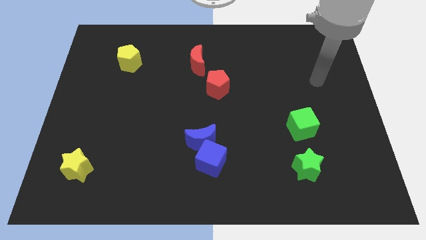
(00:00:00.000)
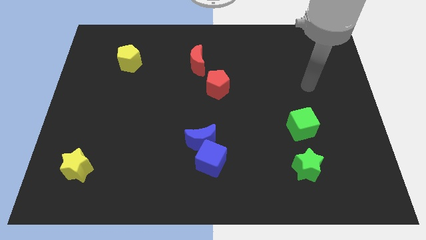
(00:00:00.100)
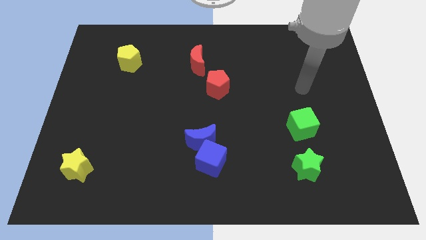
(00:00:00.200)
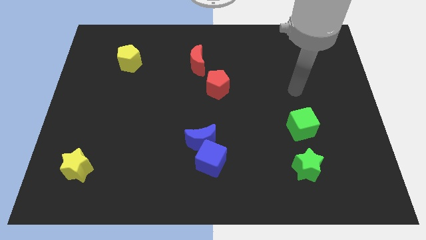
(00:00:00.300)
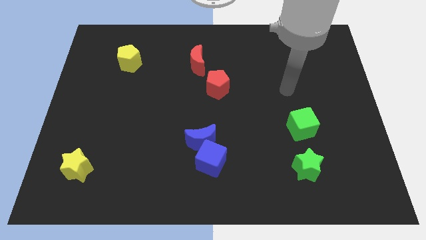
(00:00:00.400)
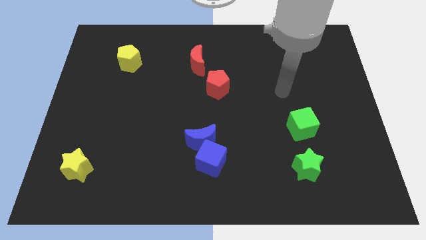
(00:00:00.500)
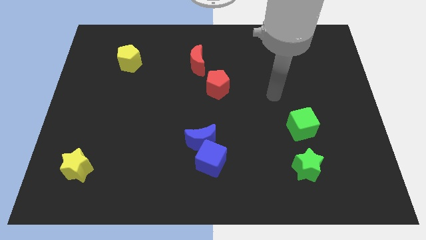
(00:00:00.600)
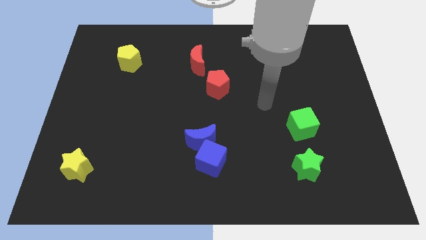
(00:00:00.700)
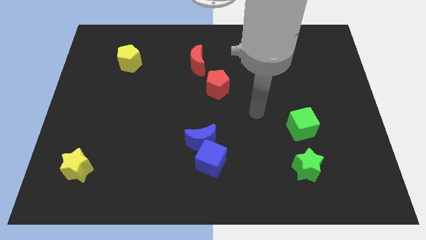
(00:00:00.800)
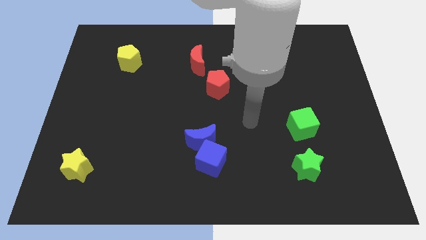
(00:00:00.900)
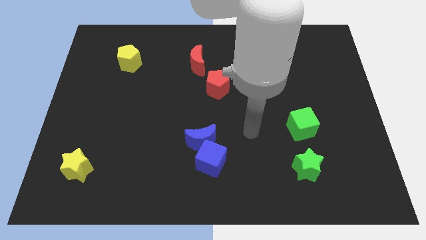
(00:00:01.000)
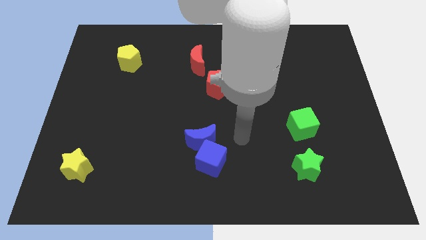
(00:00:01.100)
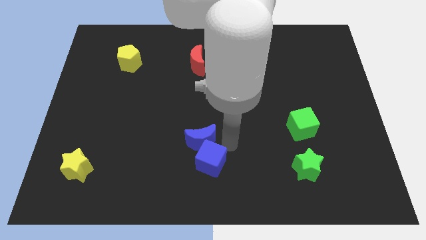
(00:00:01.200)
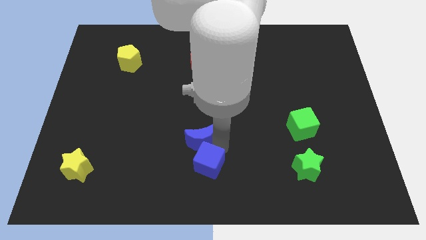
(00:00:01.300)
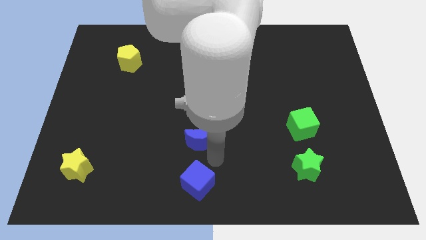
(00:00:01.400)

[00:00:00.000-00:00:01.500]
pull the blue moon apart from the blue cube

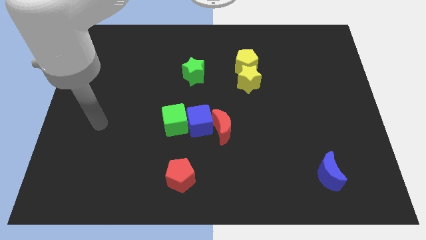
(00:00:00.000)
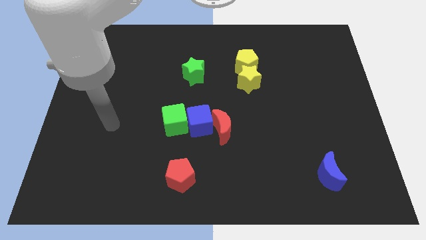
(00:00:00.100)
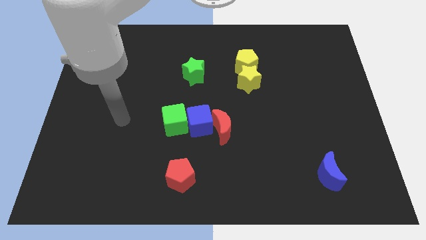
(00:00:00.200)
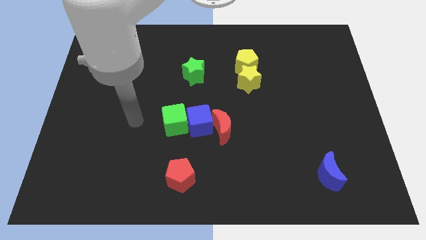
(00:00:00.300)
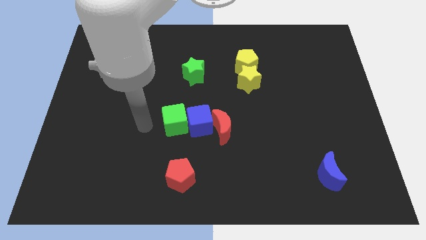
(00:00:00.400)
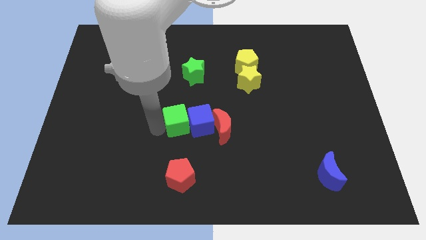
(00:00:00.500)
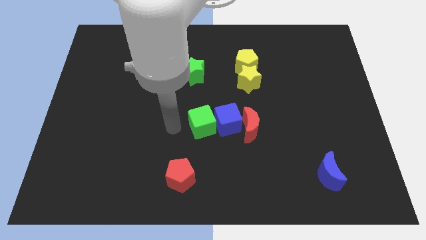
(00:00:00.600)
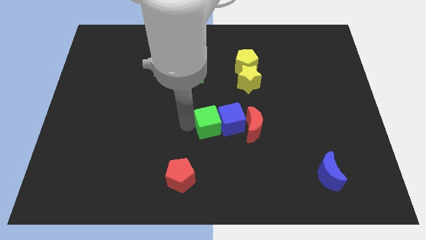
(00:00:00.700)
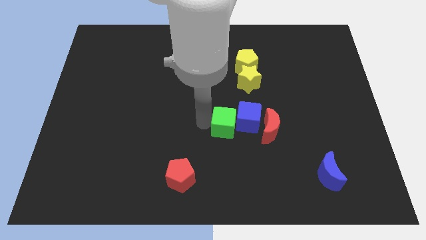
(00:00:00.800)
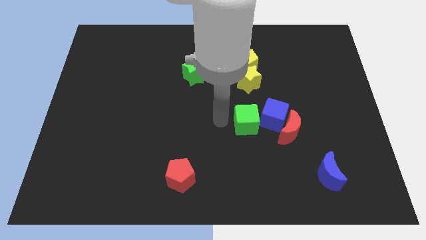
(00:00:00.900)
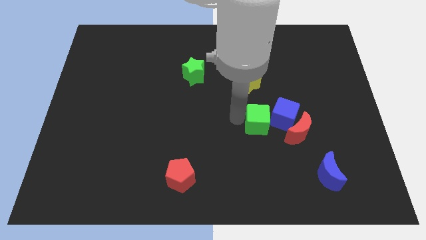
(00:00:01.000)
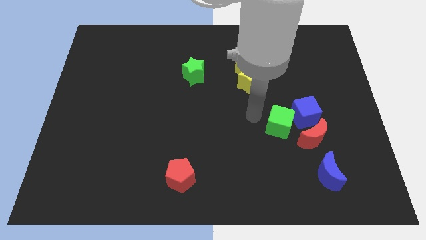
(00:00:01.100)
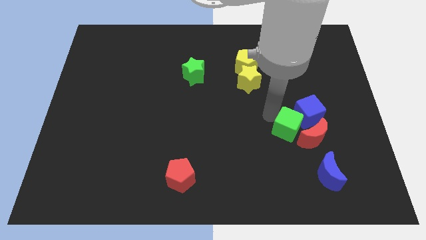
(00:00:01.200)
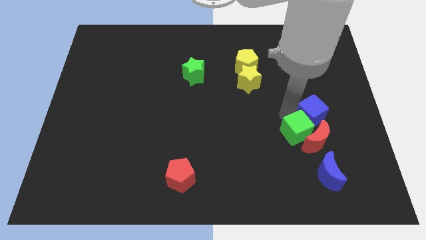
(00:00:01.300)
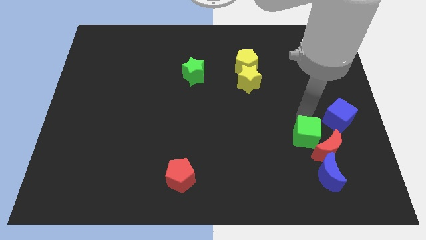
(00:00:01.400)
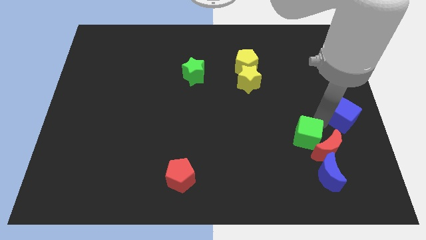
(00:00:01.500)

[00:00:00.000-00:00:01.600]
move the red moon away from the blue cube

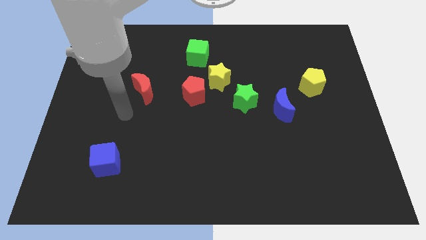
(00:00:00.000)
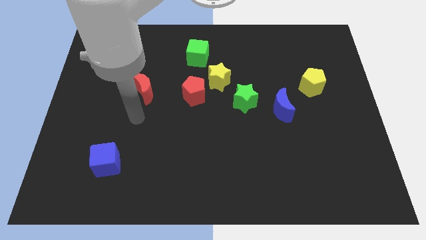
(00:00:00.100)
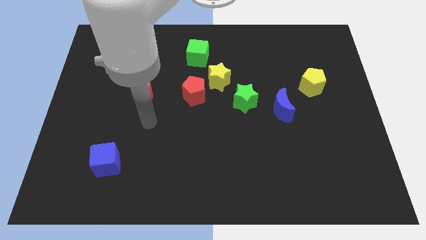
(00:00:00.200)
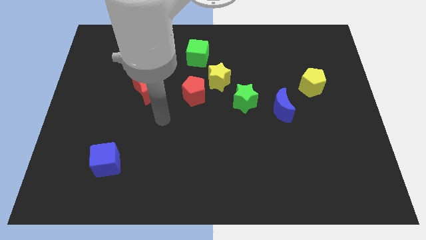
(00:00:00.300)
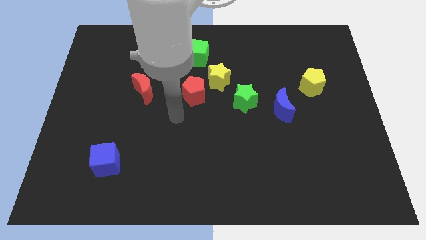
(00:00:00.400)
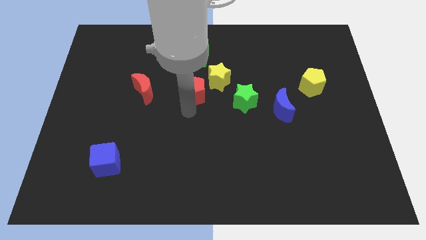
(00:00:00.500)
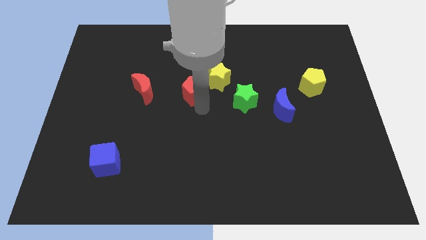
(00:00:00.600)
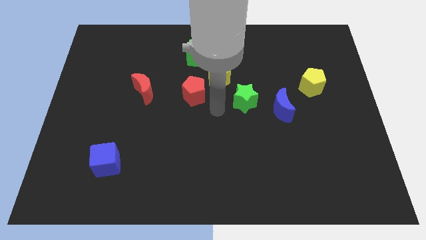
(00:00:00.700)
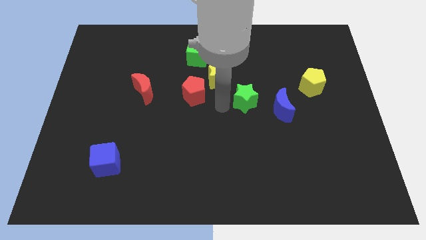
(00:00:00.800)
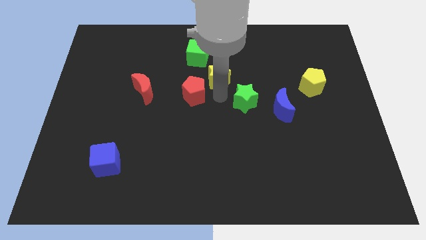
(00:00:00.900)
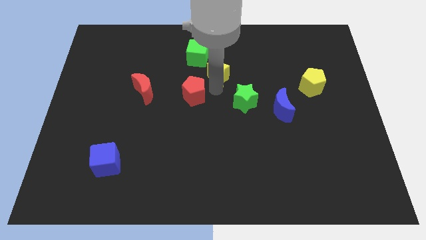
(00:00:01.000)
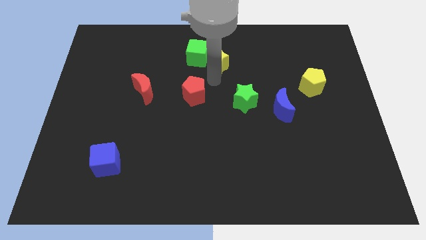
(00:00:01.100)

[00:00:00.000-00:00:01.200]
pull the red pentagon apart from the yellow star

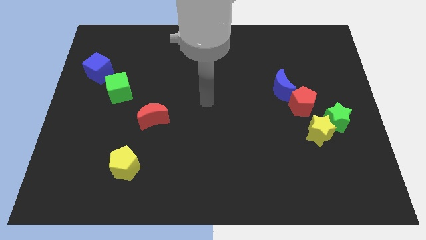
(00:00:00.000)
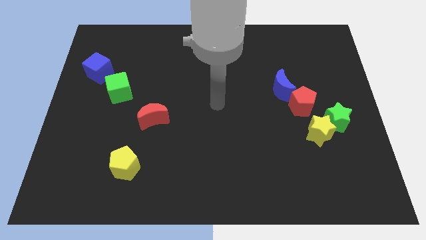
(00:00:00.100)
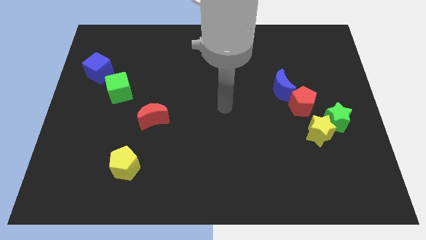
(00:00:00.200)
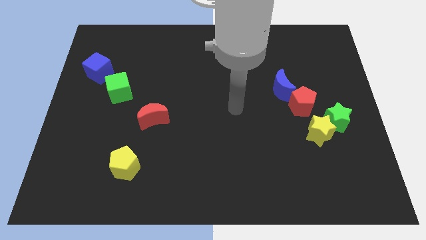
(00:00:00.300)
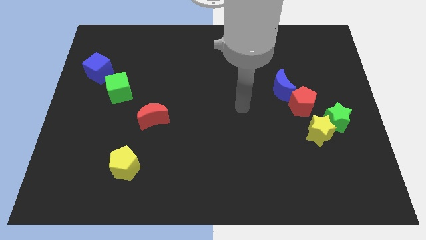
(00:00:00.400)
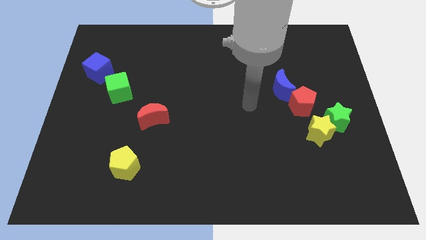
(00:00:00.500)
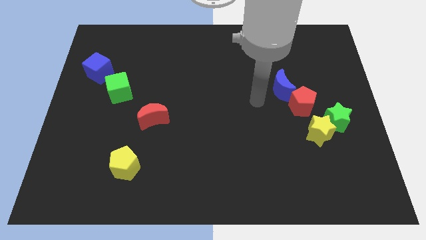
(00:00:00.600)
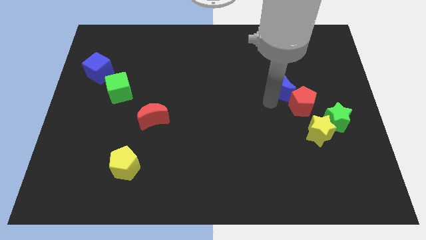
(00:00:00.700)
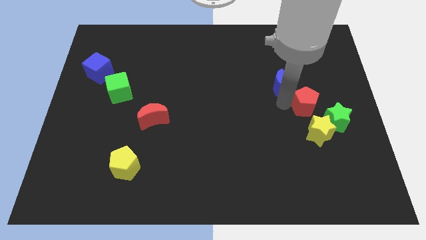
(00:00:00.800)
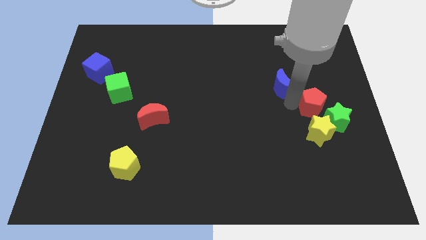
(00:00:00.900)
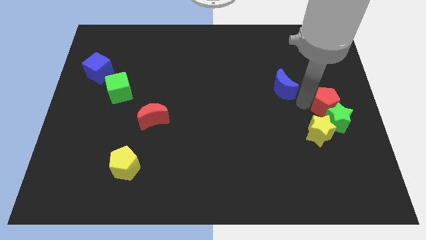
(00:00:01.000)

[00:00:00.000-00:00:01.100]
move the blue moon away from the red pentagon

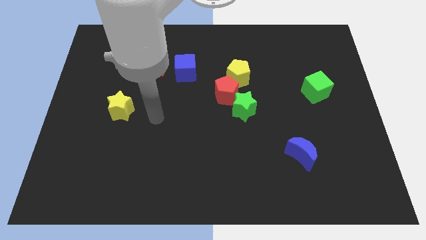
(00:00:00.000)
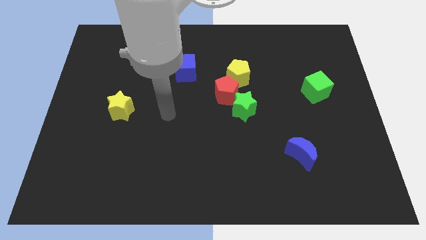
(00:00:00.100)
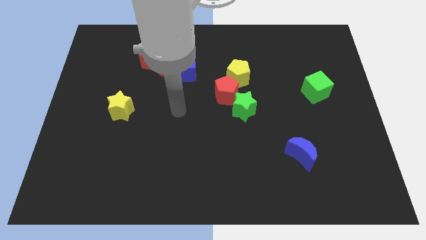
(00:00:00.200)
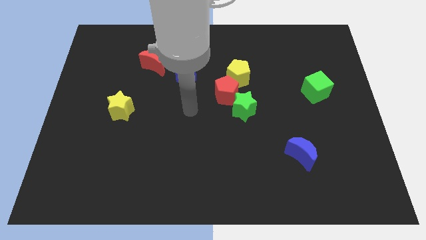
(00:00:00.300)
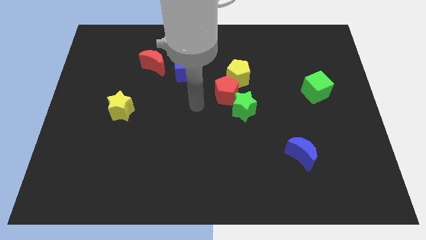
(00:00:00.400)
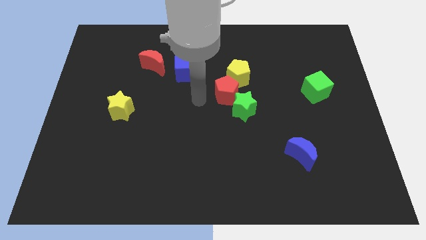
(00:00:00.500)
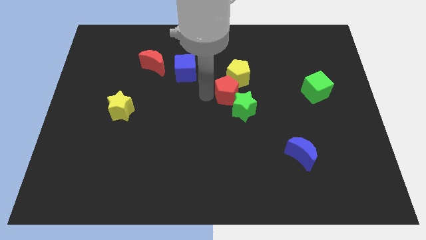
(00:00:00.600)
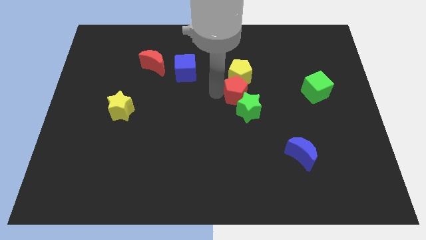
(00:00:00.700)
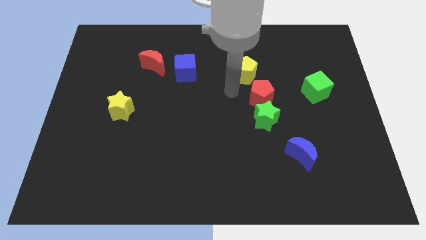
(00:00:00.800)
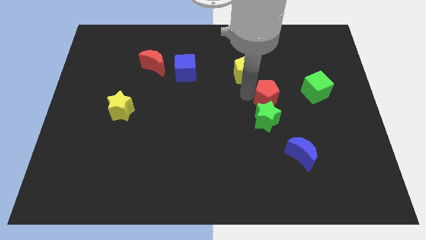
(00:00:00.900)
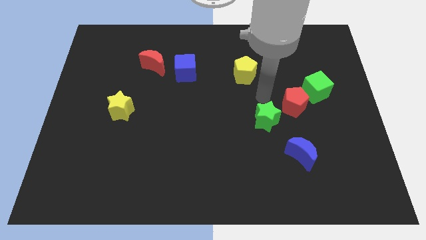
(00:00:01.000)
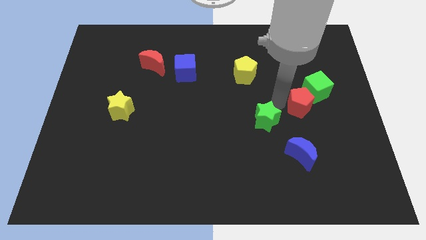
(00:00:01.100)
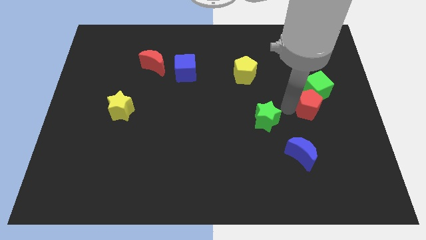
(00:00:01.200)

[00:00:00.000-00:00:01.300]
pull the green star apart from the red pentagon

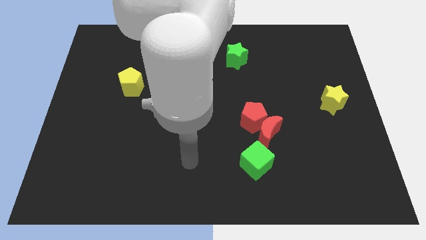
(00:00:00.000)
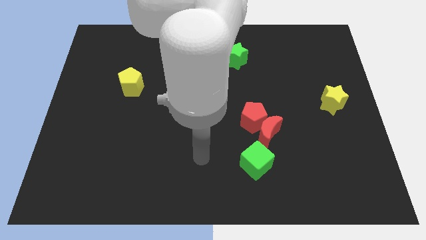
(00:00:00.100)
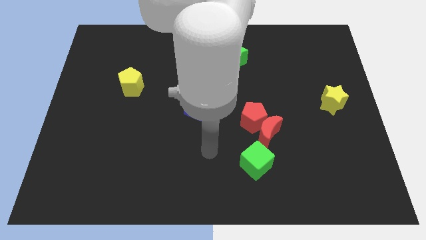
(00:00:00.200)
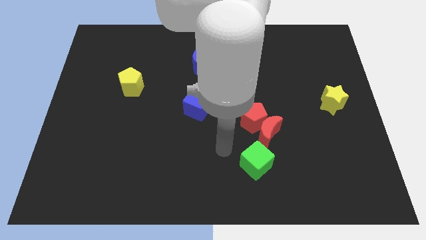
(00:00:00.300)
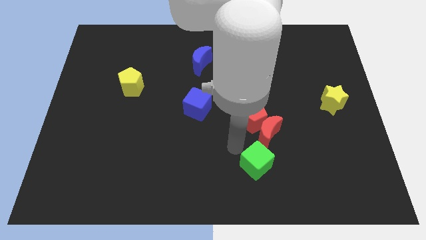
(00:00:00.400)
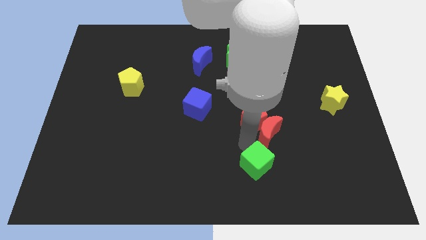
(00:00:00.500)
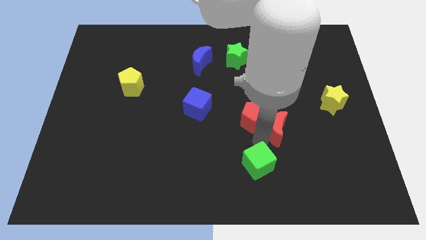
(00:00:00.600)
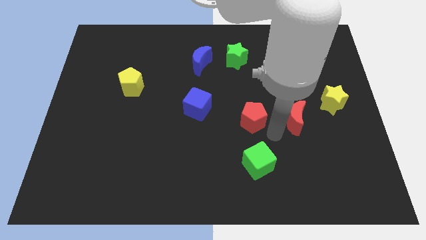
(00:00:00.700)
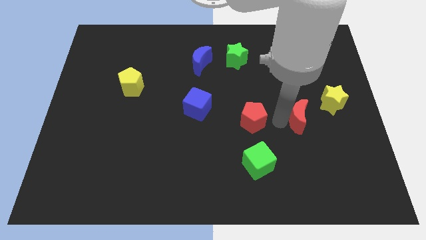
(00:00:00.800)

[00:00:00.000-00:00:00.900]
move the red pentagon away from the red moon

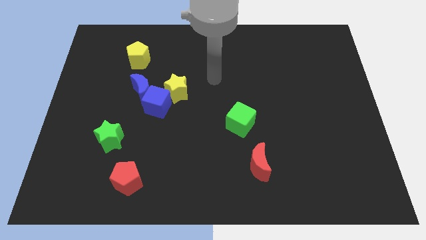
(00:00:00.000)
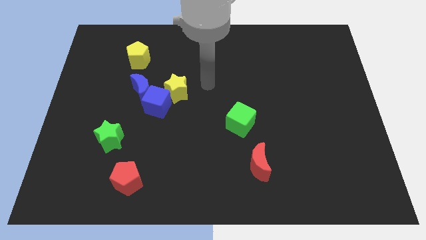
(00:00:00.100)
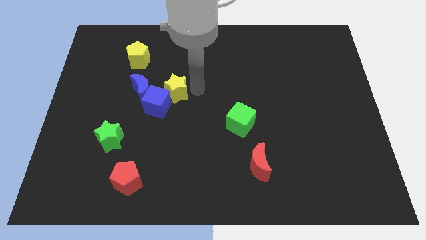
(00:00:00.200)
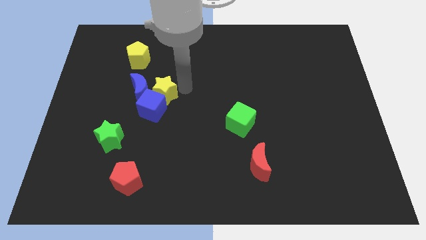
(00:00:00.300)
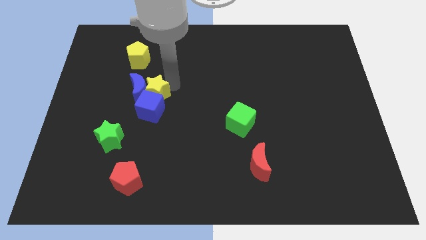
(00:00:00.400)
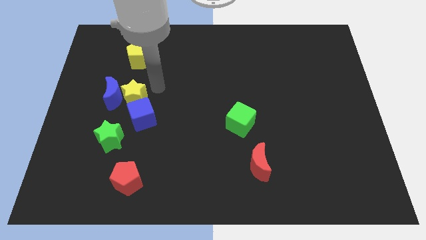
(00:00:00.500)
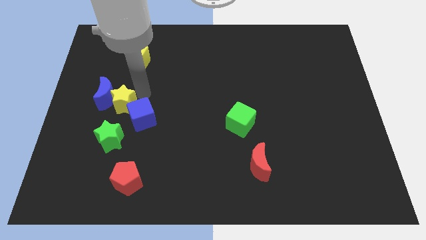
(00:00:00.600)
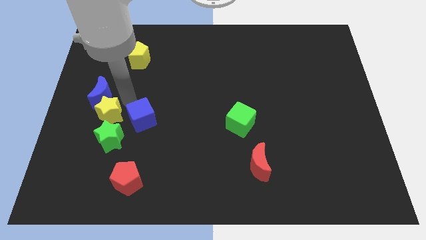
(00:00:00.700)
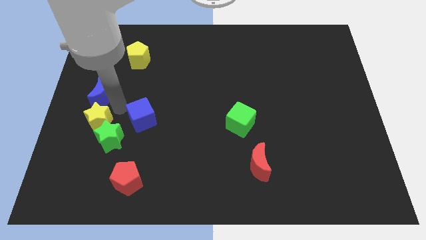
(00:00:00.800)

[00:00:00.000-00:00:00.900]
move the blue cube away from the blue moon and yellow star

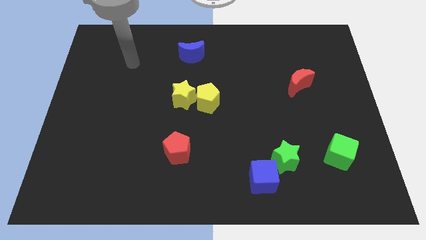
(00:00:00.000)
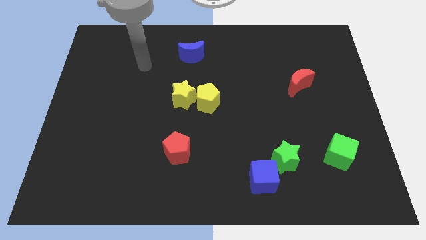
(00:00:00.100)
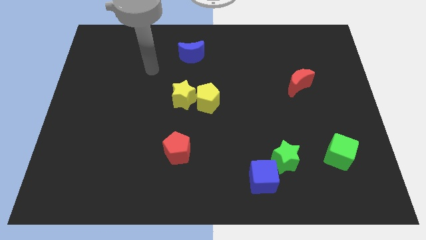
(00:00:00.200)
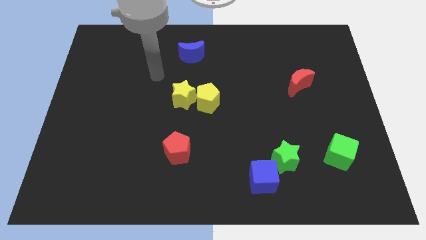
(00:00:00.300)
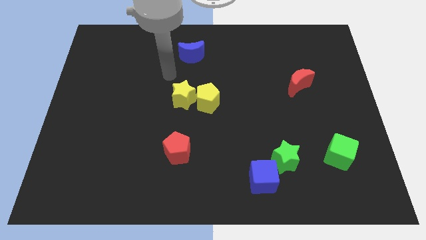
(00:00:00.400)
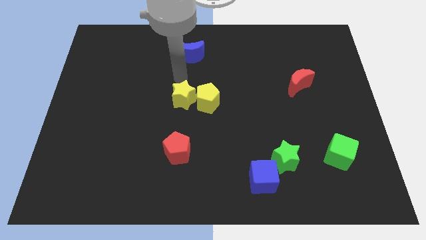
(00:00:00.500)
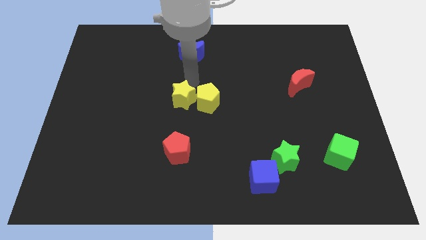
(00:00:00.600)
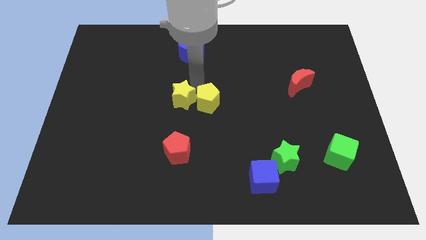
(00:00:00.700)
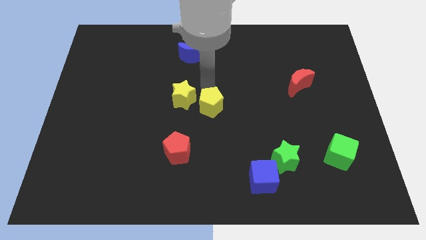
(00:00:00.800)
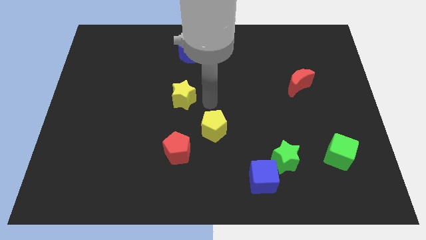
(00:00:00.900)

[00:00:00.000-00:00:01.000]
move the yellow star away from the yellow pentagon
